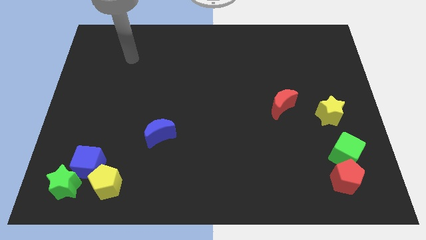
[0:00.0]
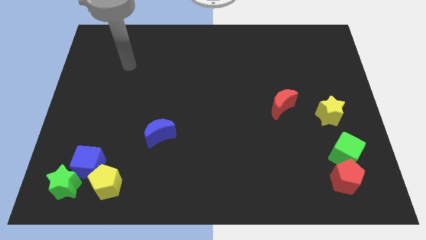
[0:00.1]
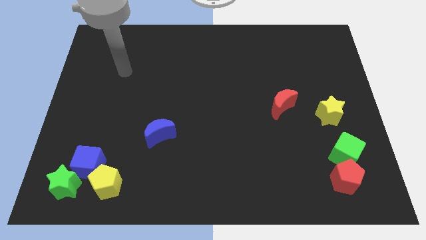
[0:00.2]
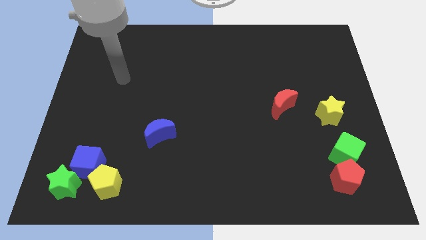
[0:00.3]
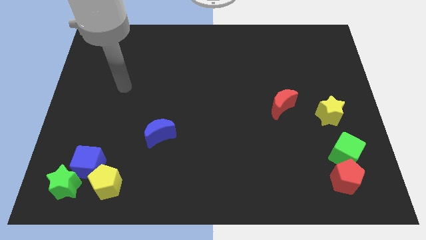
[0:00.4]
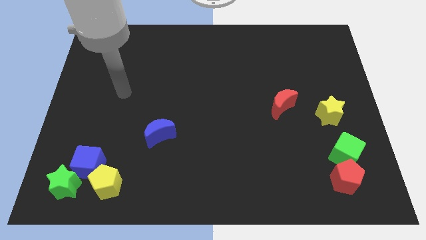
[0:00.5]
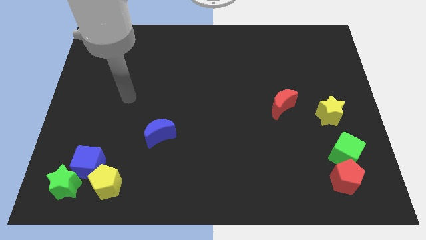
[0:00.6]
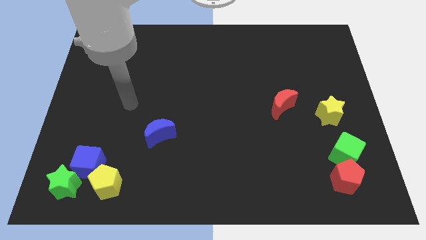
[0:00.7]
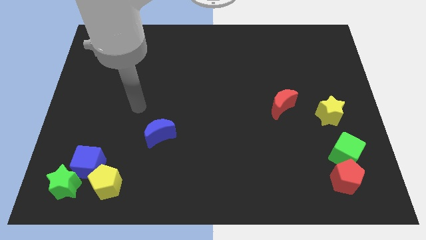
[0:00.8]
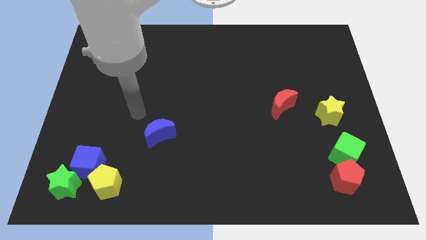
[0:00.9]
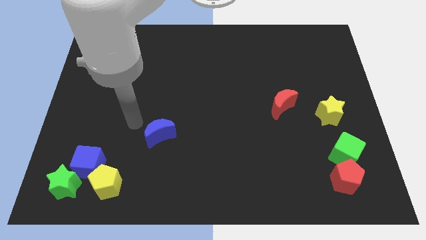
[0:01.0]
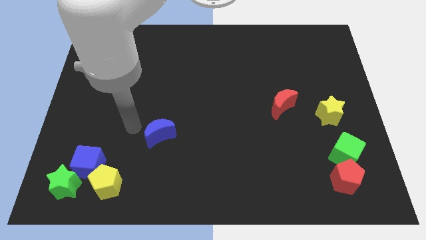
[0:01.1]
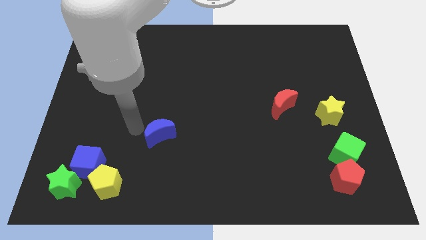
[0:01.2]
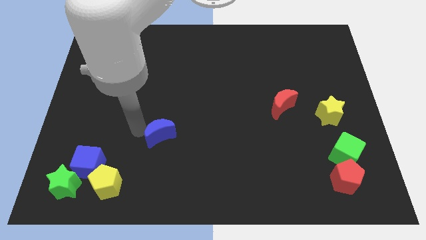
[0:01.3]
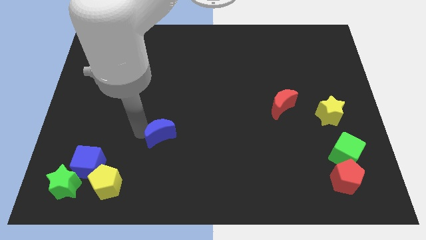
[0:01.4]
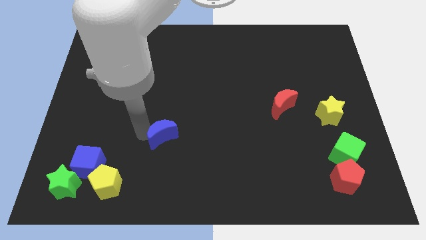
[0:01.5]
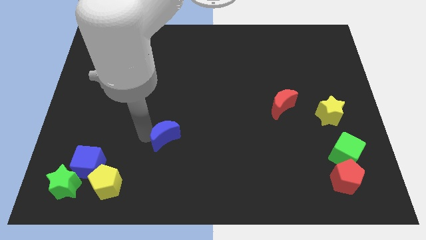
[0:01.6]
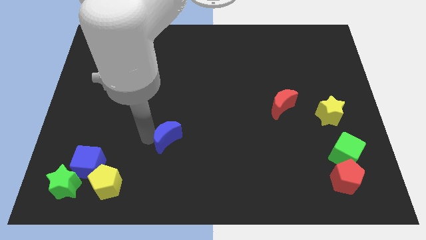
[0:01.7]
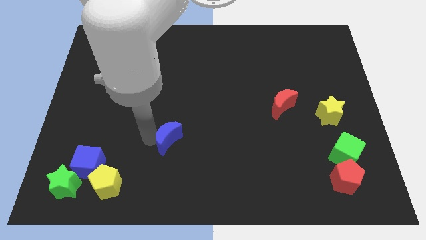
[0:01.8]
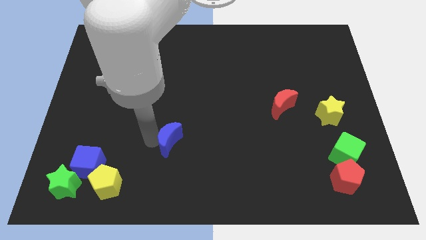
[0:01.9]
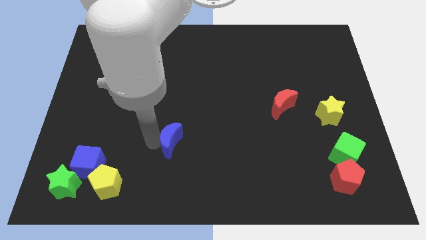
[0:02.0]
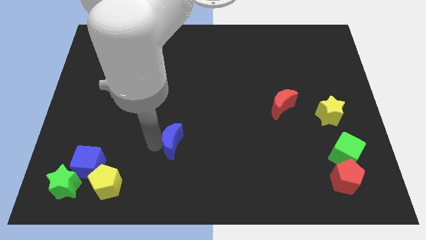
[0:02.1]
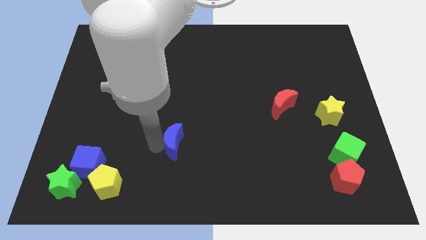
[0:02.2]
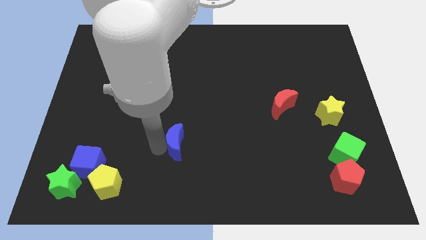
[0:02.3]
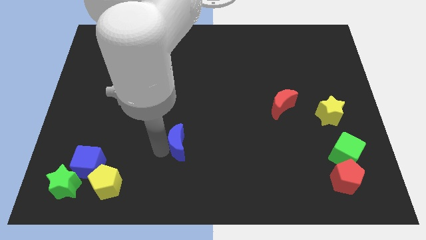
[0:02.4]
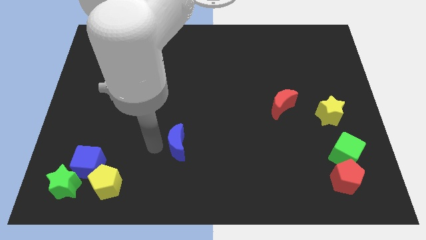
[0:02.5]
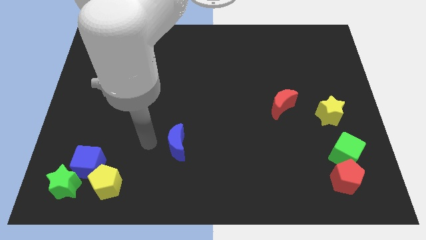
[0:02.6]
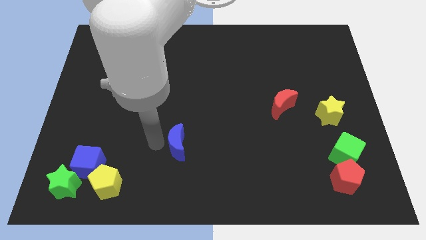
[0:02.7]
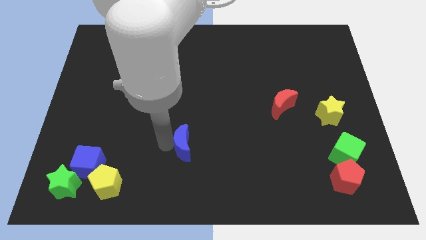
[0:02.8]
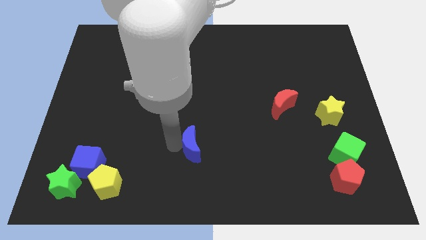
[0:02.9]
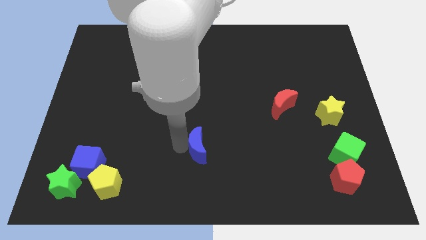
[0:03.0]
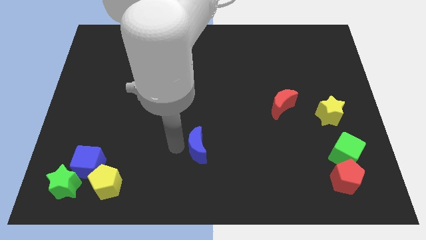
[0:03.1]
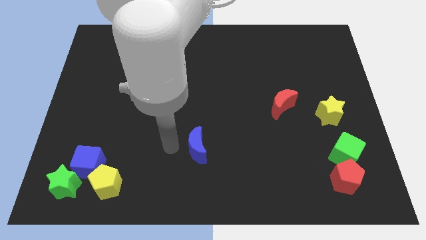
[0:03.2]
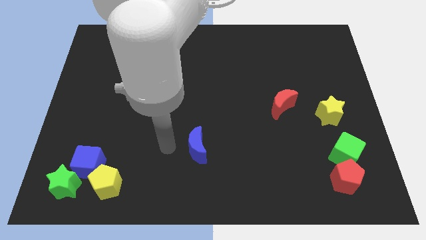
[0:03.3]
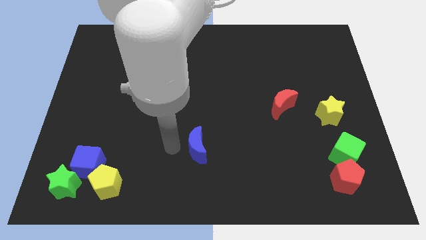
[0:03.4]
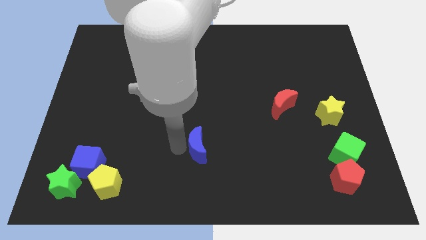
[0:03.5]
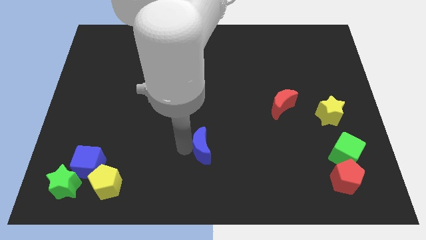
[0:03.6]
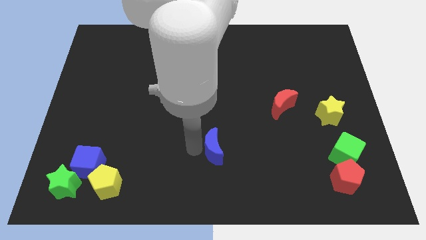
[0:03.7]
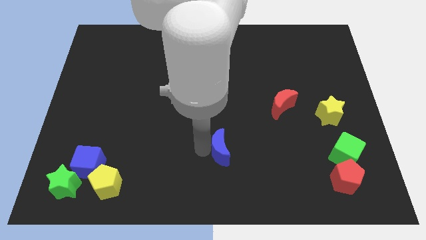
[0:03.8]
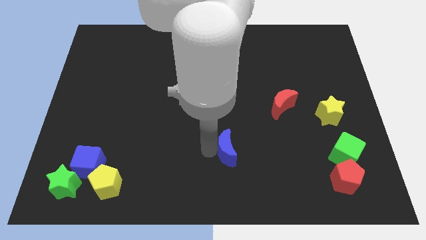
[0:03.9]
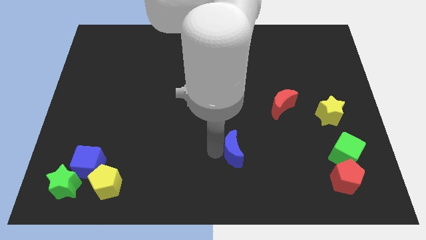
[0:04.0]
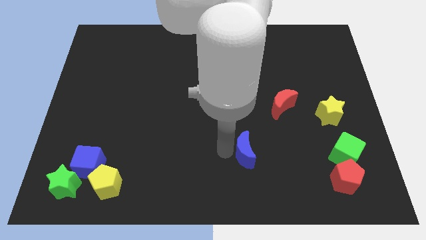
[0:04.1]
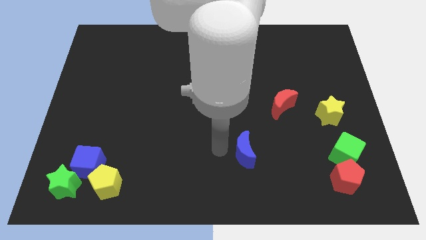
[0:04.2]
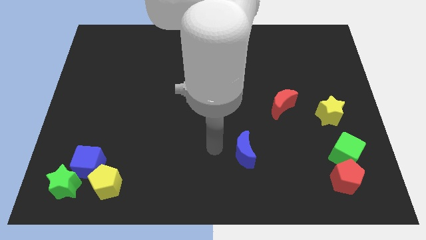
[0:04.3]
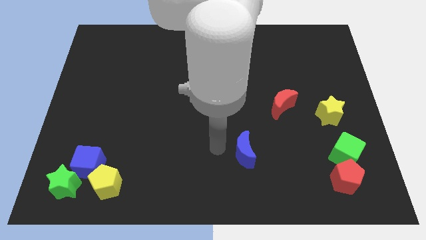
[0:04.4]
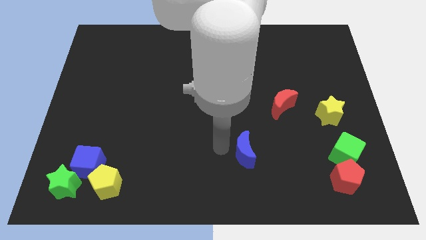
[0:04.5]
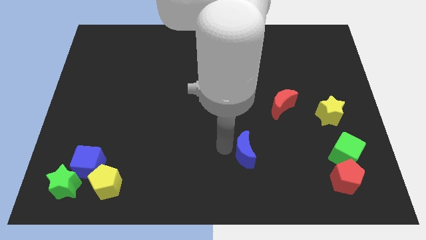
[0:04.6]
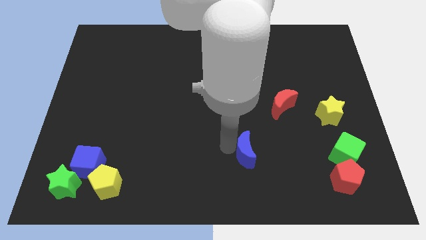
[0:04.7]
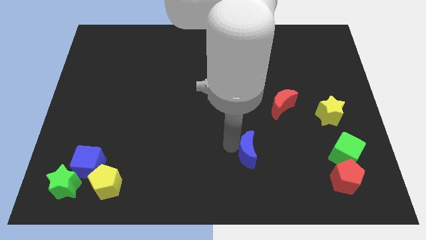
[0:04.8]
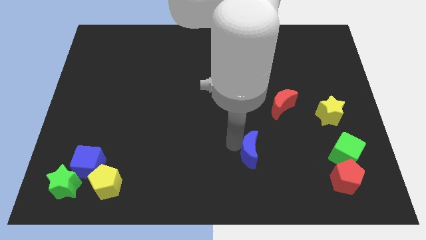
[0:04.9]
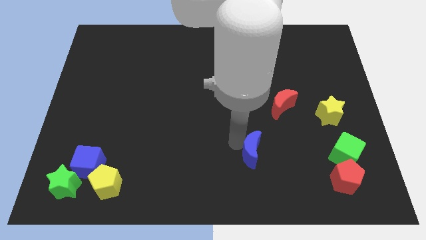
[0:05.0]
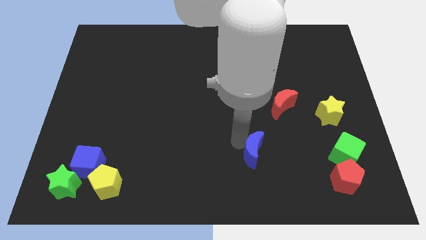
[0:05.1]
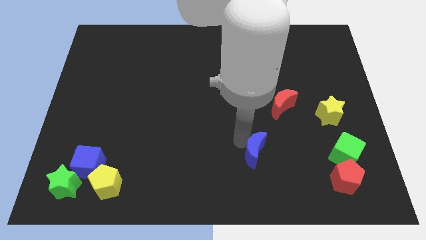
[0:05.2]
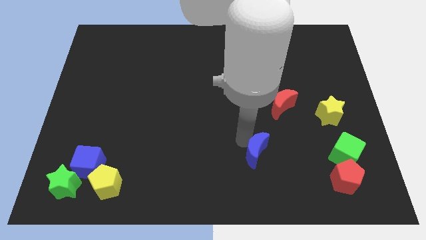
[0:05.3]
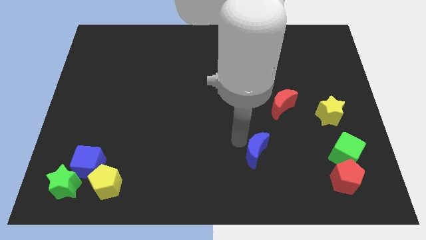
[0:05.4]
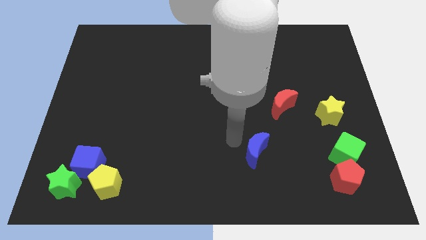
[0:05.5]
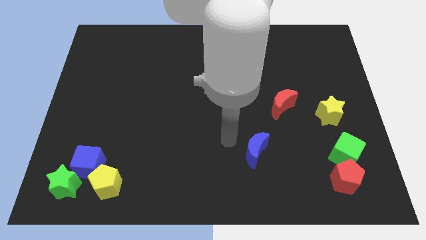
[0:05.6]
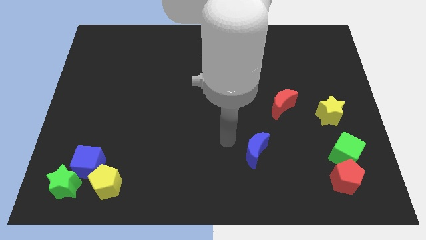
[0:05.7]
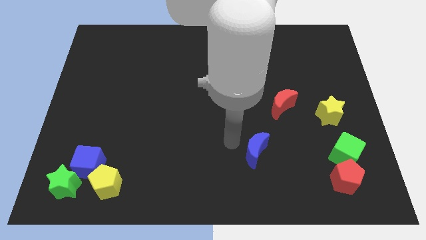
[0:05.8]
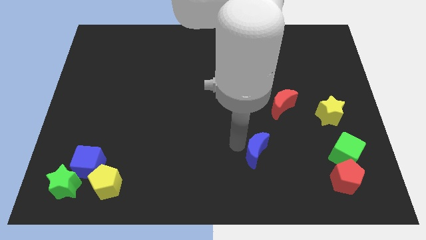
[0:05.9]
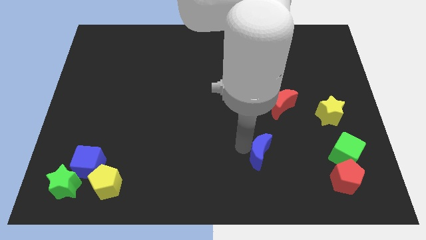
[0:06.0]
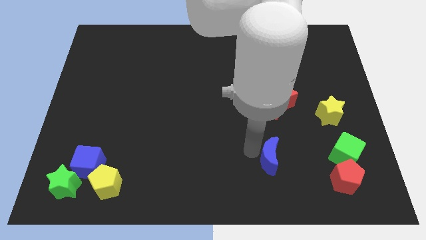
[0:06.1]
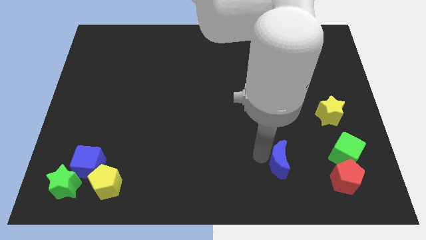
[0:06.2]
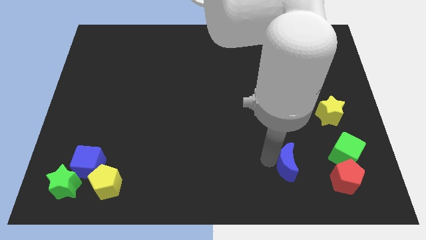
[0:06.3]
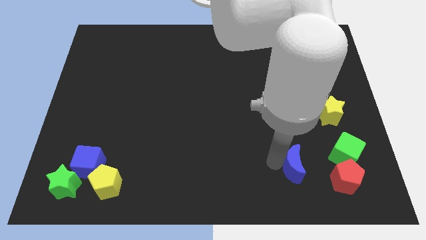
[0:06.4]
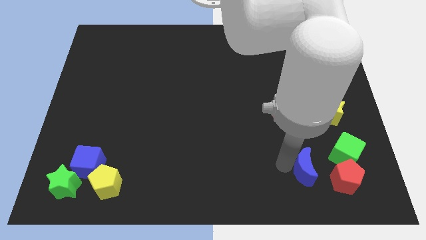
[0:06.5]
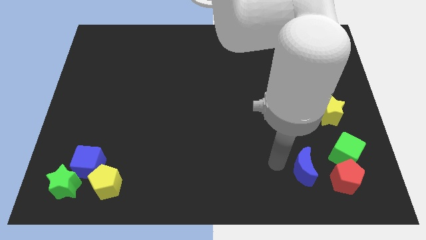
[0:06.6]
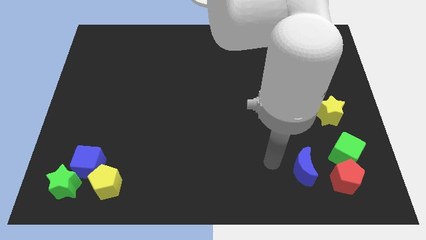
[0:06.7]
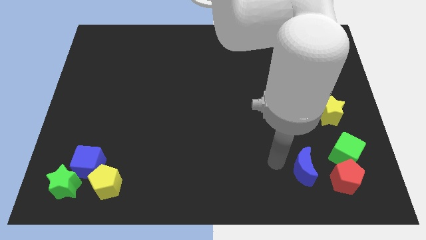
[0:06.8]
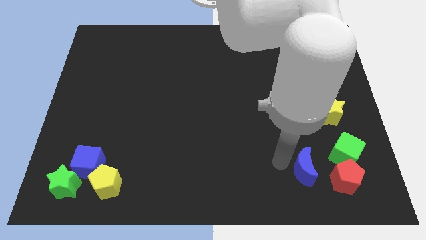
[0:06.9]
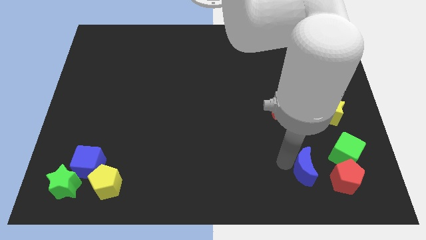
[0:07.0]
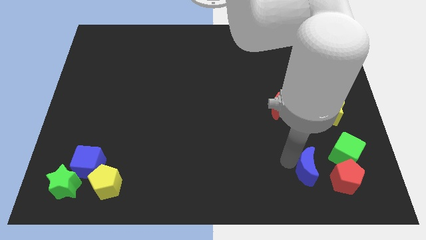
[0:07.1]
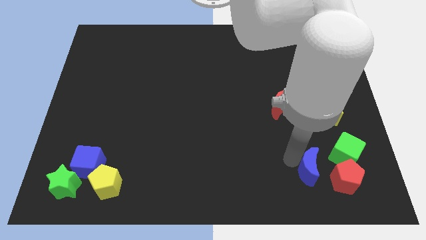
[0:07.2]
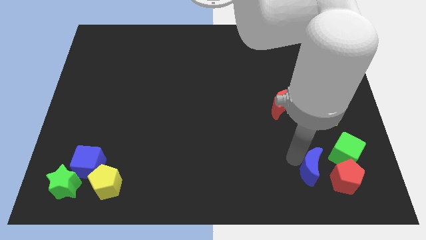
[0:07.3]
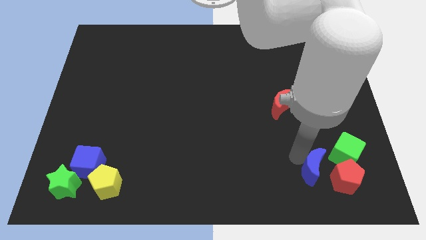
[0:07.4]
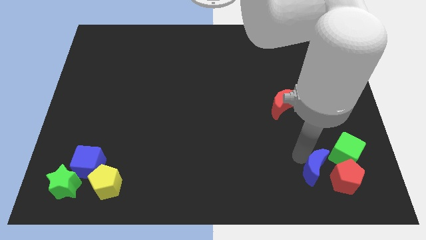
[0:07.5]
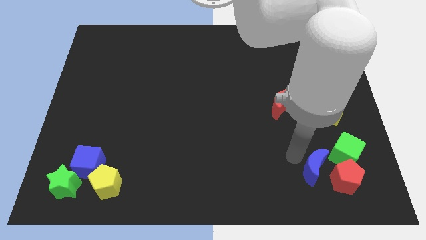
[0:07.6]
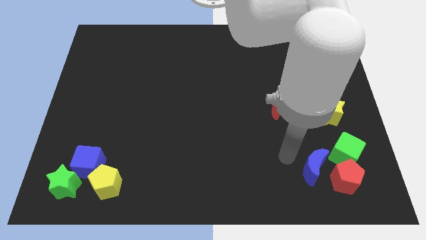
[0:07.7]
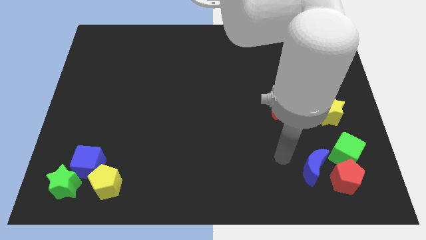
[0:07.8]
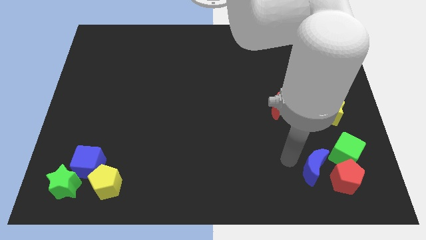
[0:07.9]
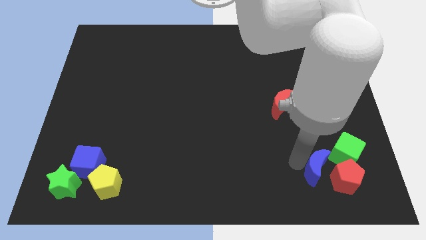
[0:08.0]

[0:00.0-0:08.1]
slide the blue moon next to the red pentagon

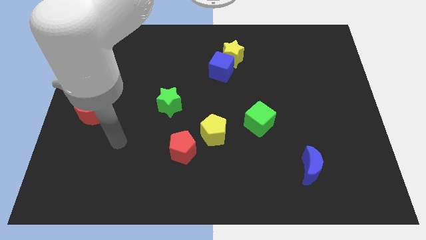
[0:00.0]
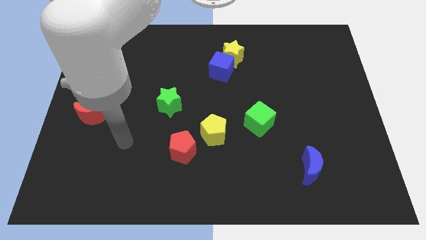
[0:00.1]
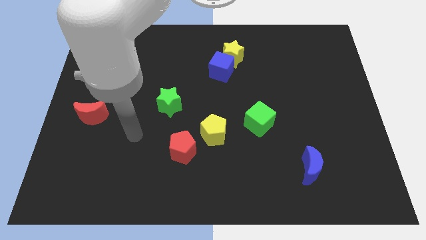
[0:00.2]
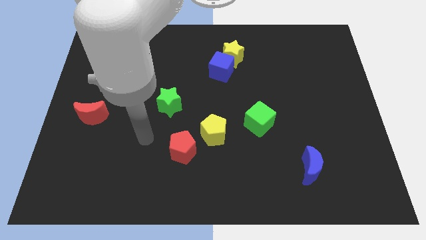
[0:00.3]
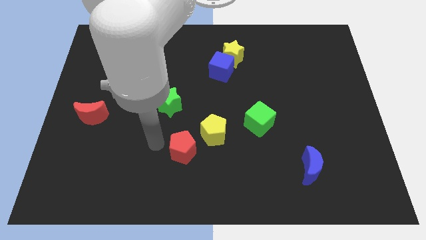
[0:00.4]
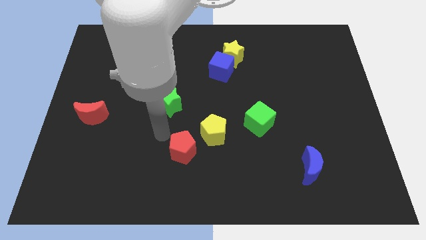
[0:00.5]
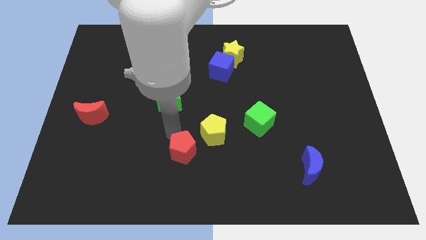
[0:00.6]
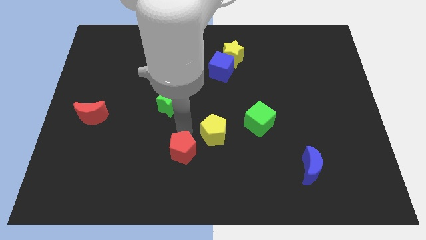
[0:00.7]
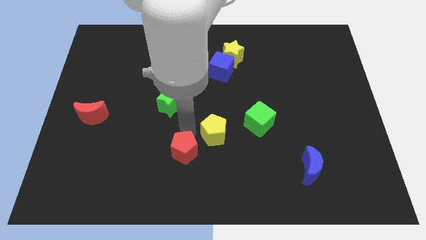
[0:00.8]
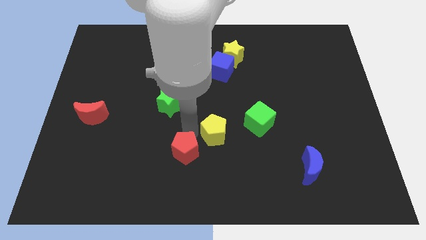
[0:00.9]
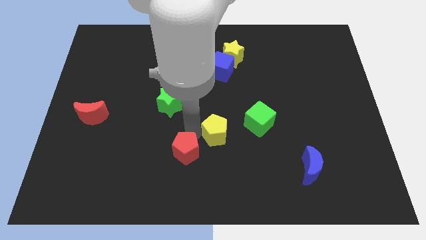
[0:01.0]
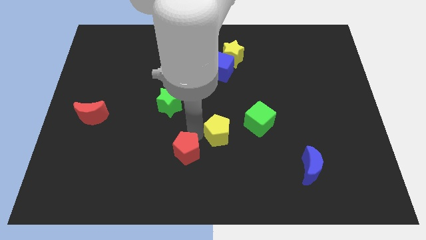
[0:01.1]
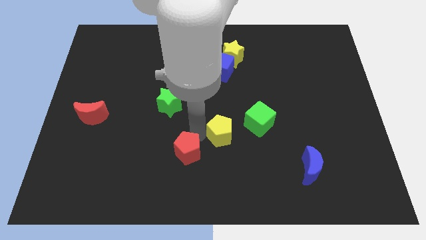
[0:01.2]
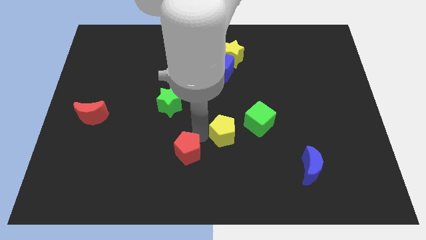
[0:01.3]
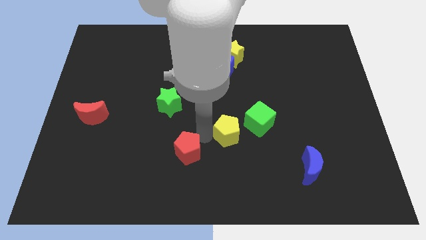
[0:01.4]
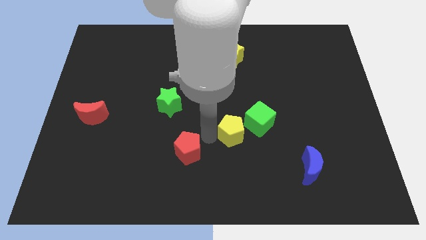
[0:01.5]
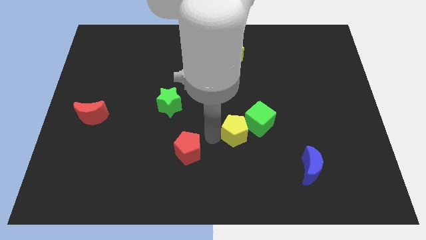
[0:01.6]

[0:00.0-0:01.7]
slide the yellow pentagon next to the green cube
